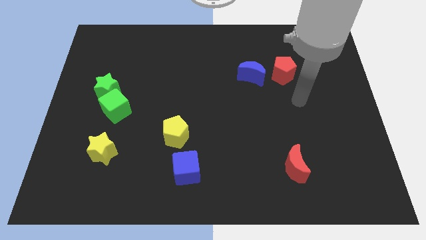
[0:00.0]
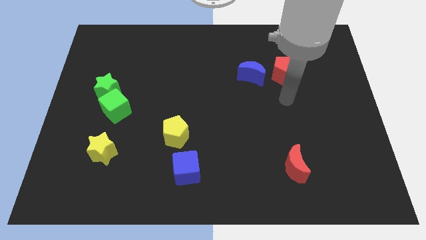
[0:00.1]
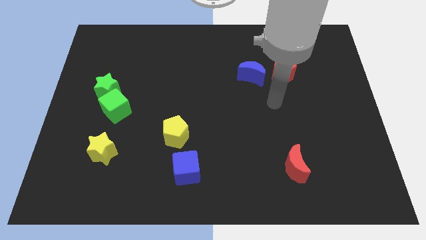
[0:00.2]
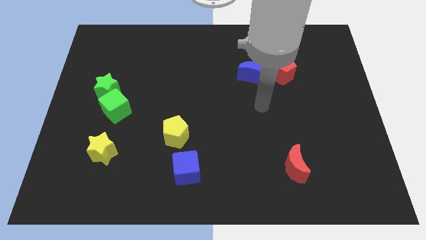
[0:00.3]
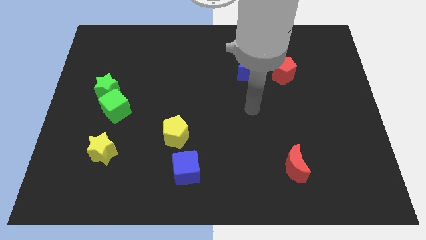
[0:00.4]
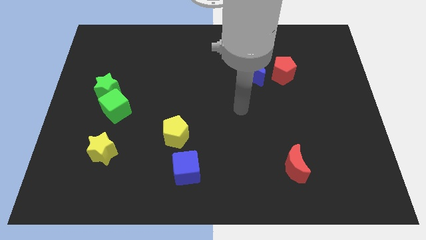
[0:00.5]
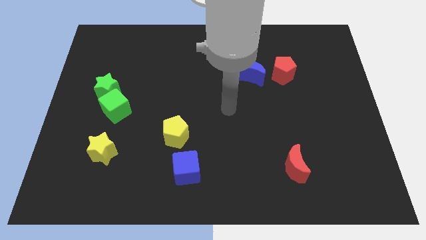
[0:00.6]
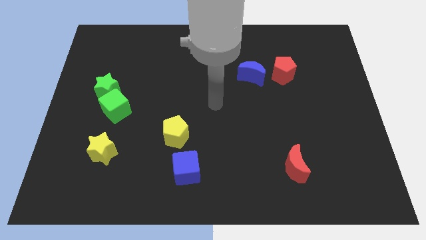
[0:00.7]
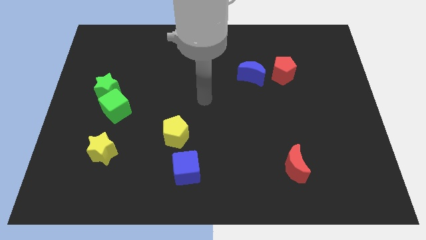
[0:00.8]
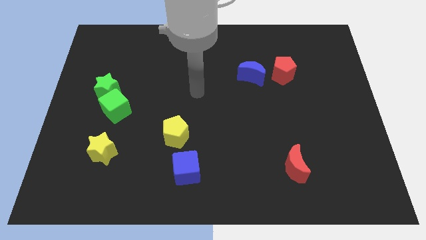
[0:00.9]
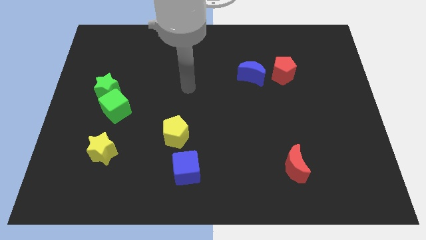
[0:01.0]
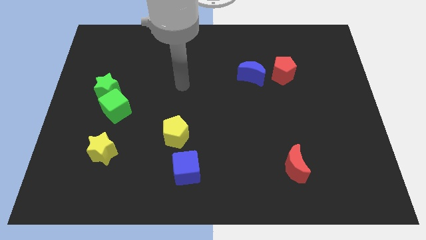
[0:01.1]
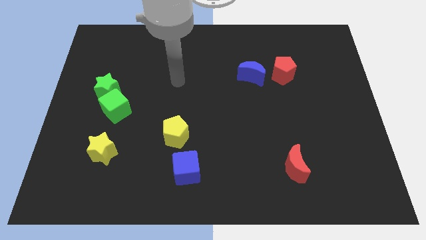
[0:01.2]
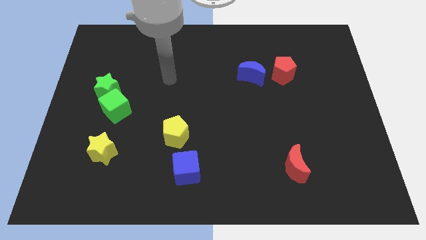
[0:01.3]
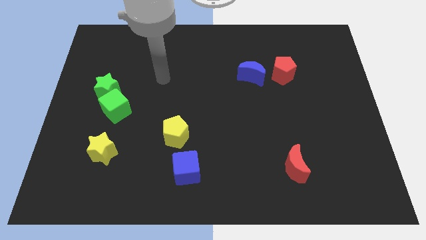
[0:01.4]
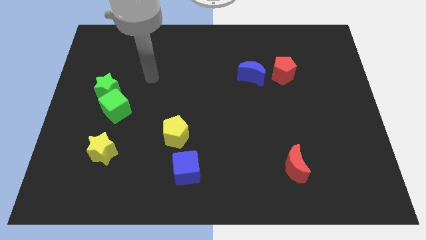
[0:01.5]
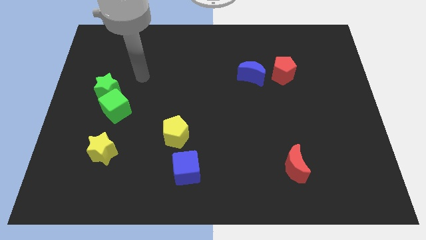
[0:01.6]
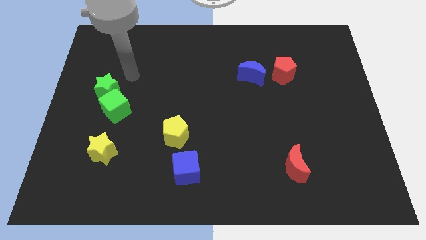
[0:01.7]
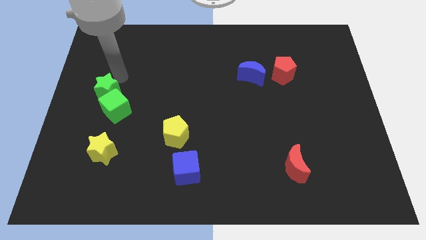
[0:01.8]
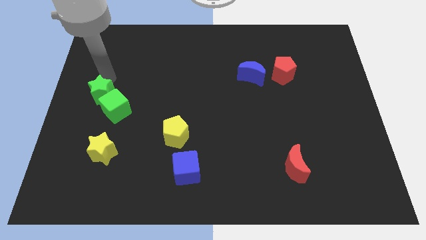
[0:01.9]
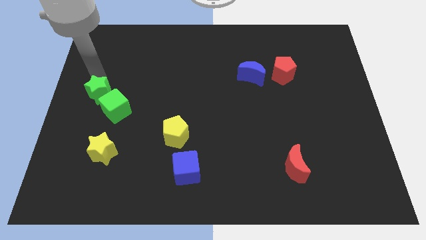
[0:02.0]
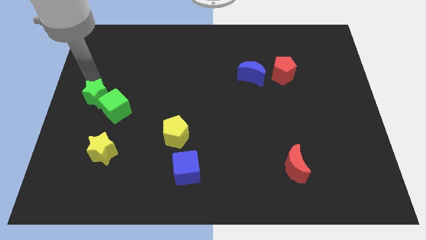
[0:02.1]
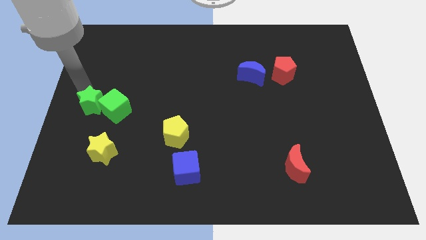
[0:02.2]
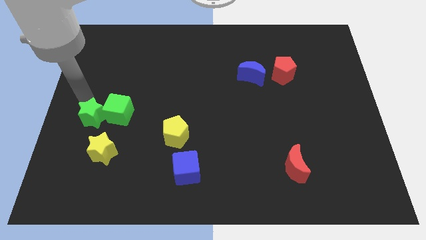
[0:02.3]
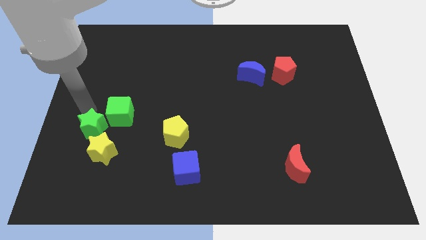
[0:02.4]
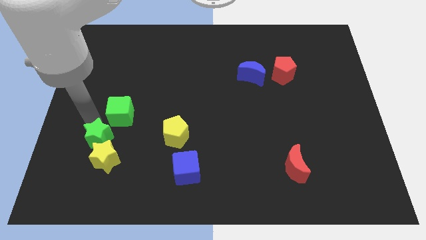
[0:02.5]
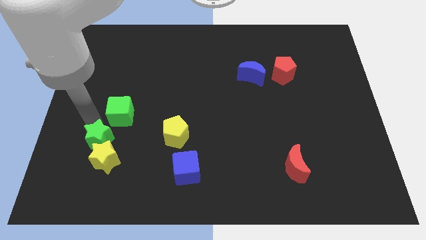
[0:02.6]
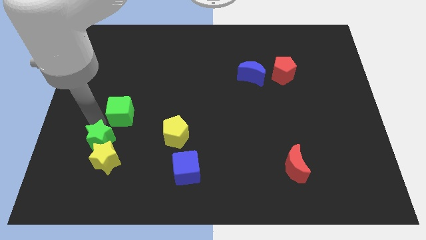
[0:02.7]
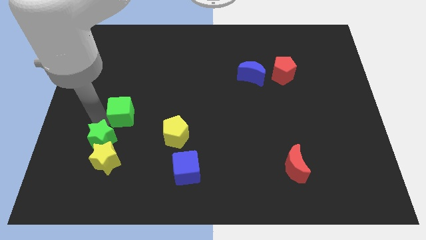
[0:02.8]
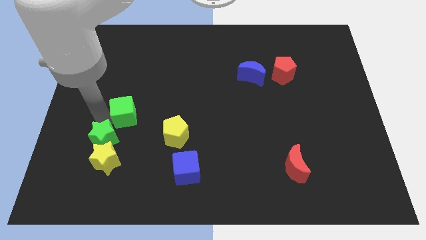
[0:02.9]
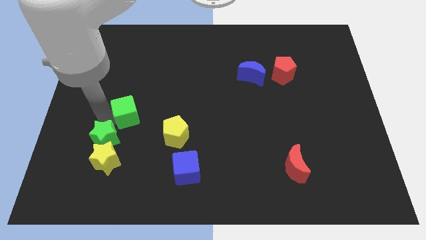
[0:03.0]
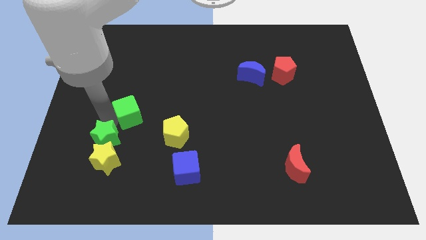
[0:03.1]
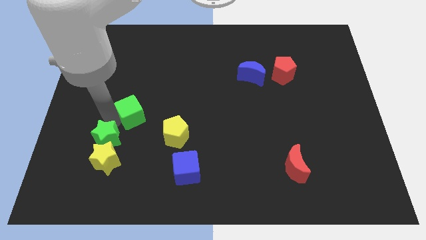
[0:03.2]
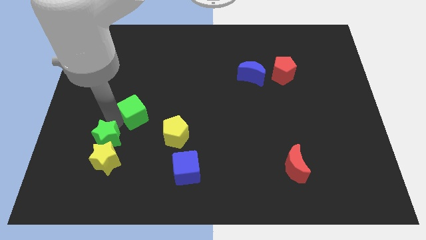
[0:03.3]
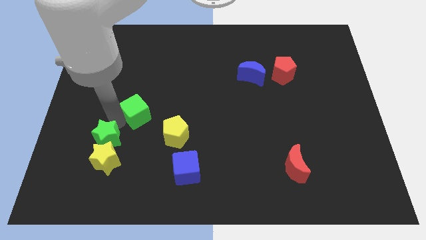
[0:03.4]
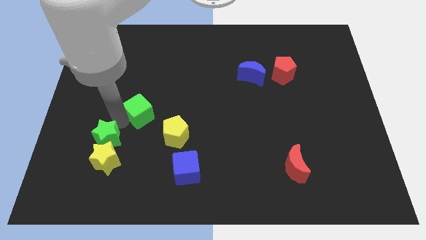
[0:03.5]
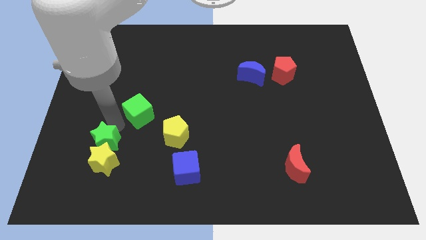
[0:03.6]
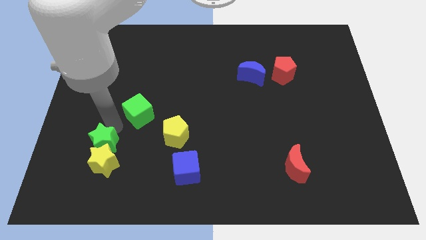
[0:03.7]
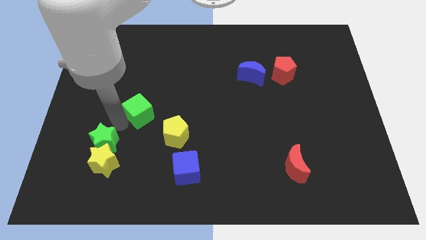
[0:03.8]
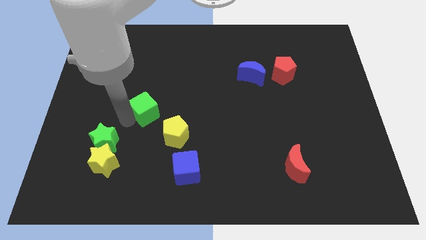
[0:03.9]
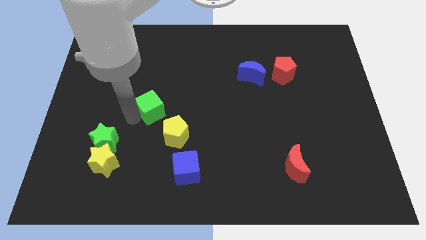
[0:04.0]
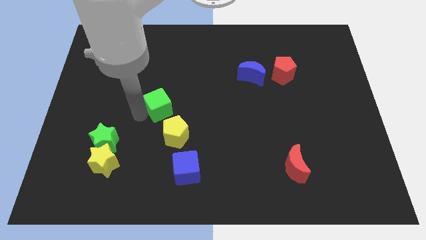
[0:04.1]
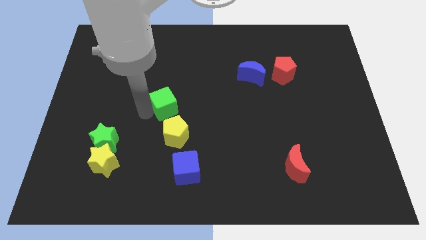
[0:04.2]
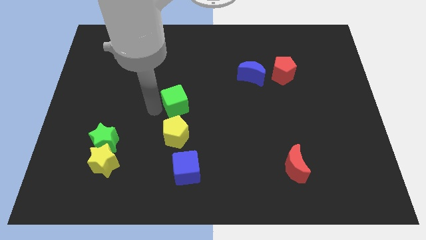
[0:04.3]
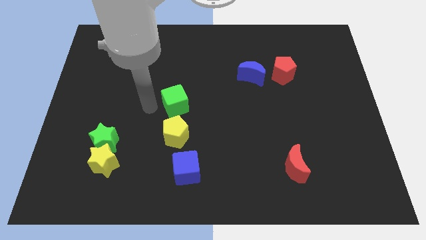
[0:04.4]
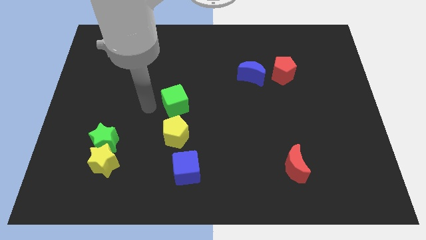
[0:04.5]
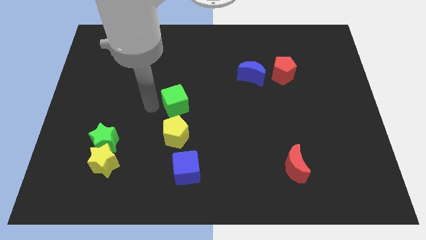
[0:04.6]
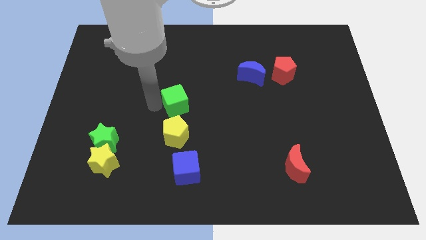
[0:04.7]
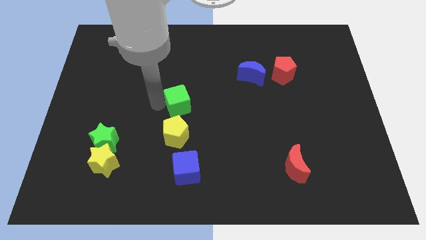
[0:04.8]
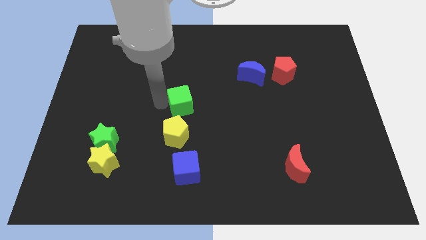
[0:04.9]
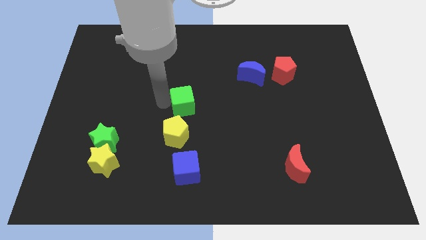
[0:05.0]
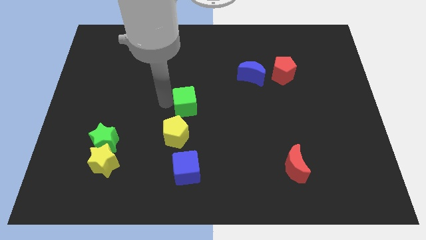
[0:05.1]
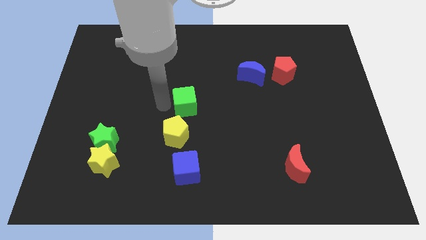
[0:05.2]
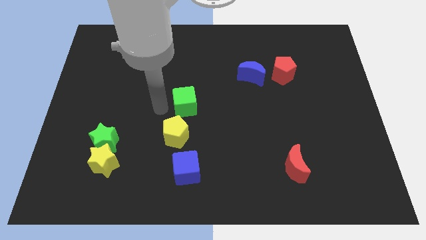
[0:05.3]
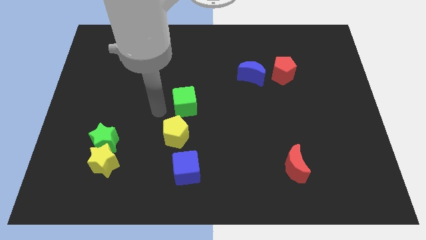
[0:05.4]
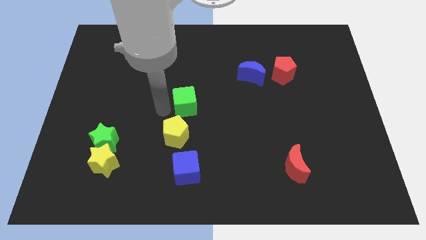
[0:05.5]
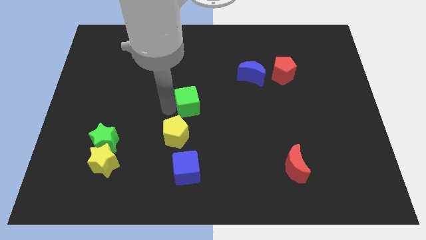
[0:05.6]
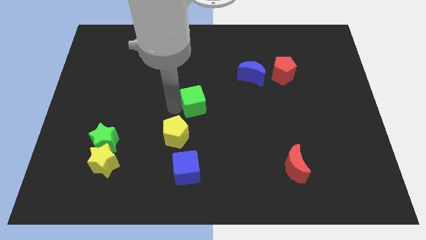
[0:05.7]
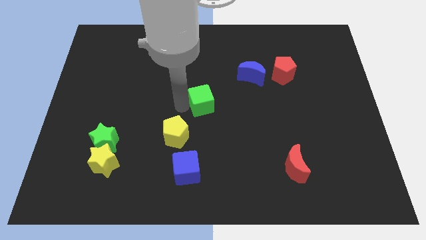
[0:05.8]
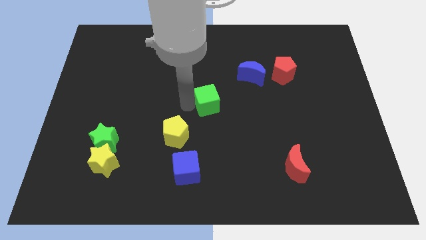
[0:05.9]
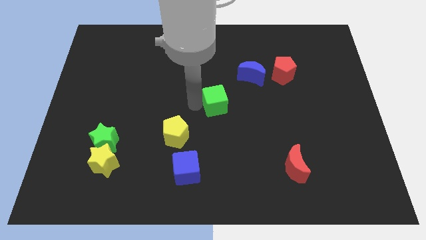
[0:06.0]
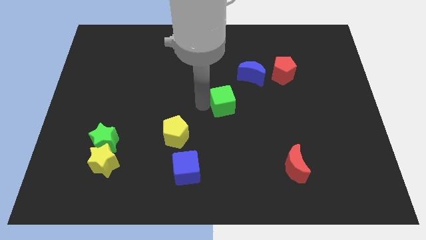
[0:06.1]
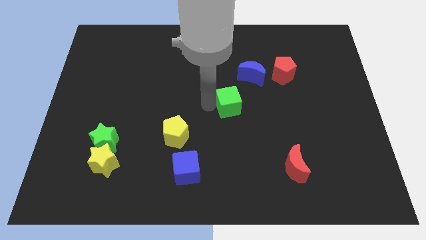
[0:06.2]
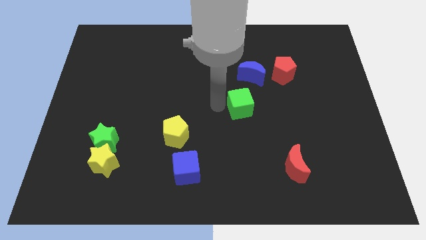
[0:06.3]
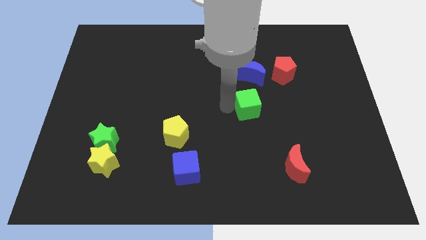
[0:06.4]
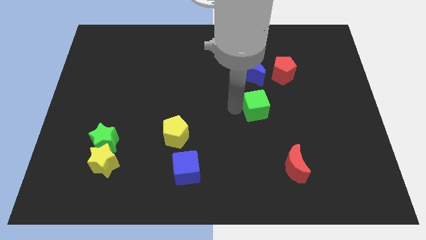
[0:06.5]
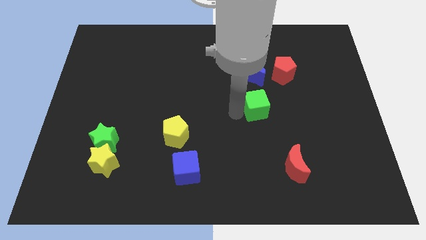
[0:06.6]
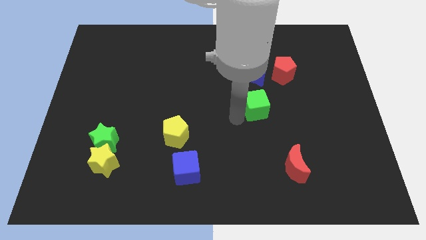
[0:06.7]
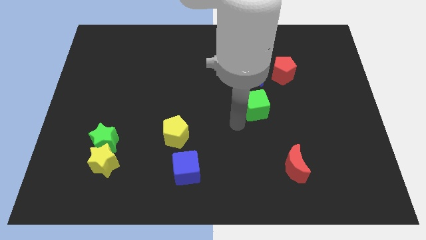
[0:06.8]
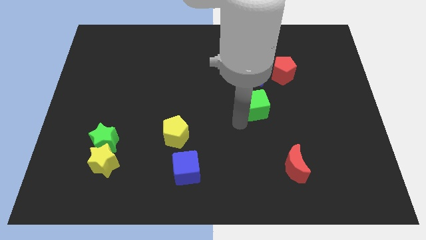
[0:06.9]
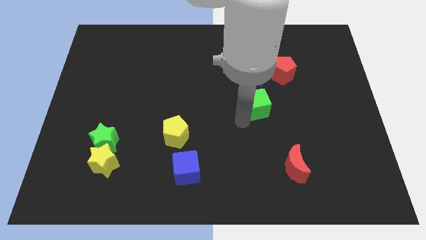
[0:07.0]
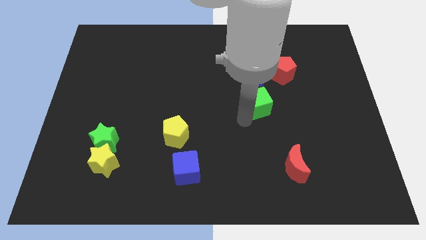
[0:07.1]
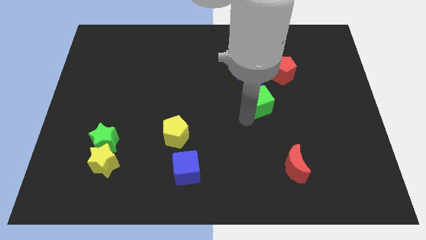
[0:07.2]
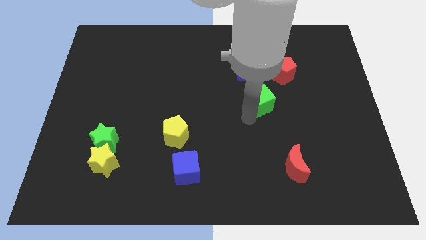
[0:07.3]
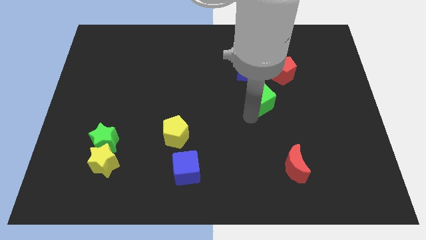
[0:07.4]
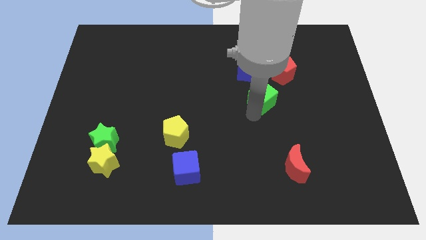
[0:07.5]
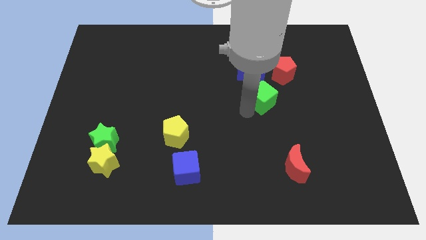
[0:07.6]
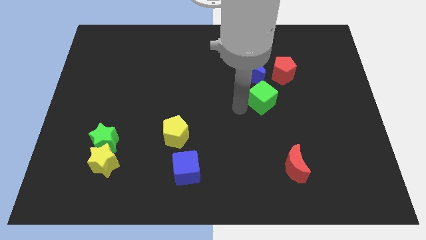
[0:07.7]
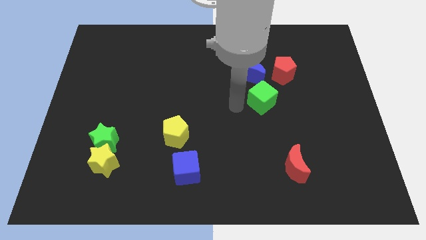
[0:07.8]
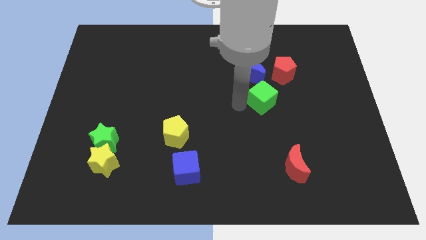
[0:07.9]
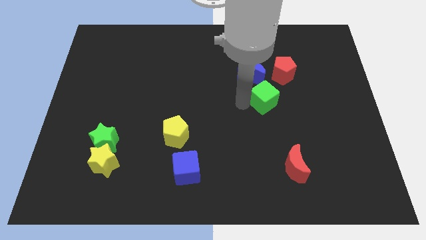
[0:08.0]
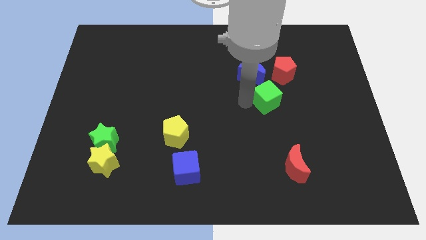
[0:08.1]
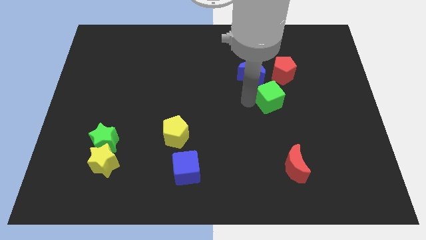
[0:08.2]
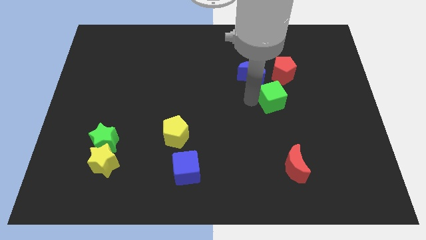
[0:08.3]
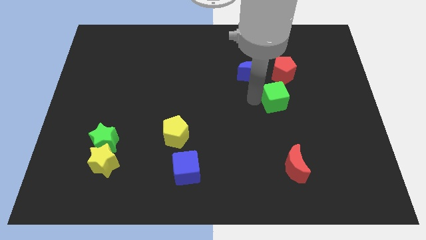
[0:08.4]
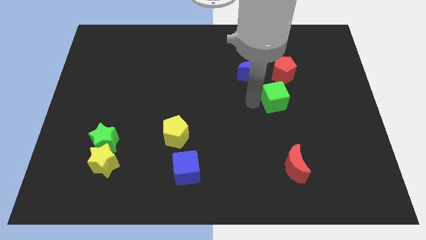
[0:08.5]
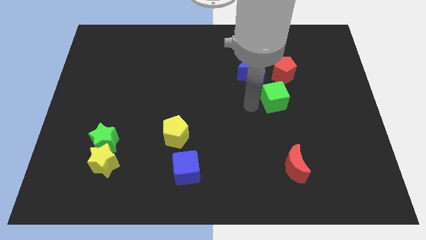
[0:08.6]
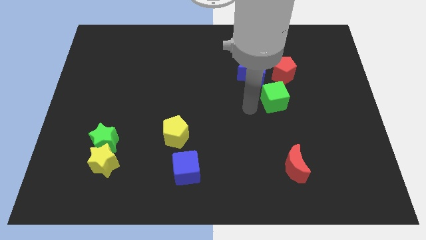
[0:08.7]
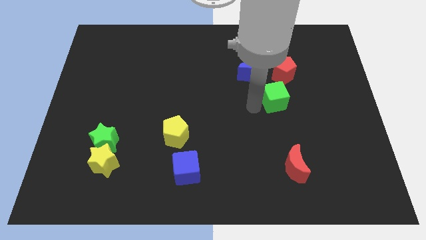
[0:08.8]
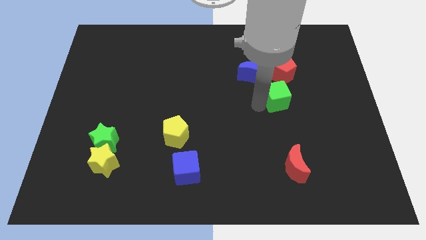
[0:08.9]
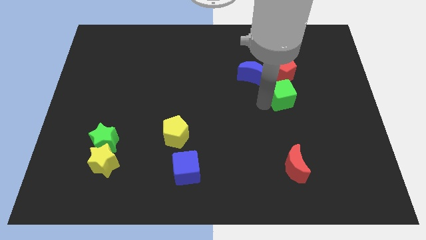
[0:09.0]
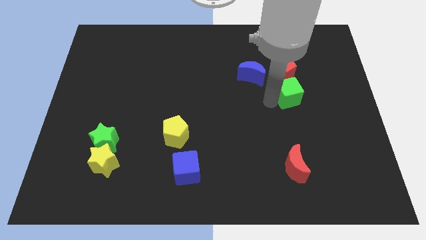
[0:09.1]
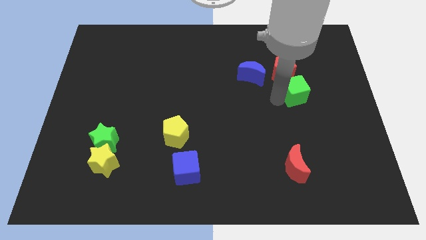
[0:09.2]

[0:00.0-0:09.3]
push the green cube diagonally down and to the right of the red pentagon
